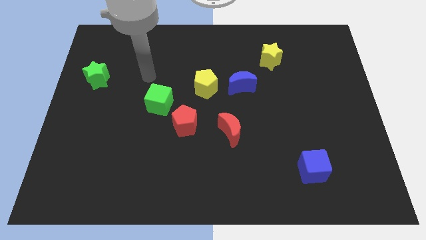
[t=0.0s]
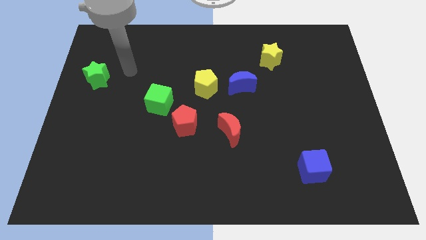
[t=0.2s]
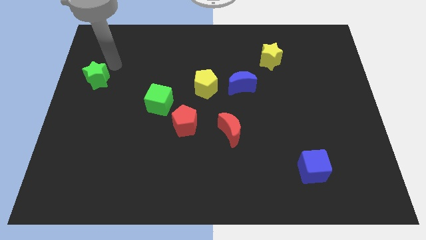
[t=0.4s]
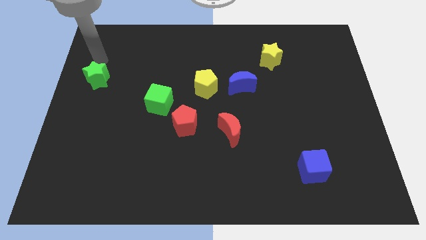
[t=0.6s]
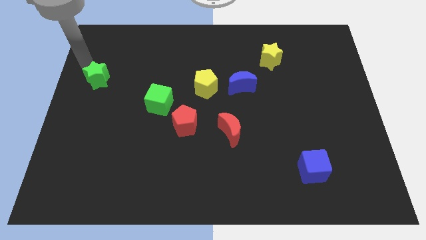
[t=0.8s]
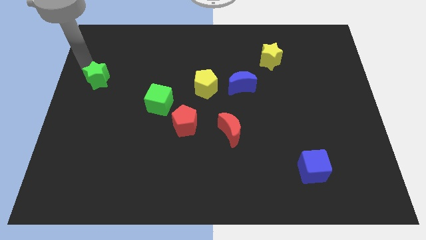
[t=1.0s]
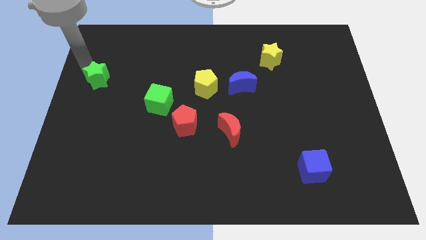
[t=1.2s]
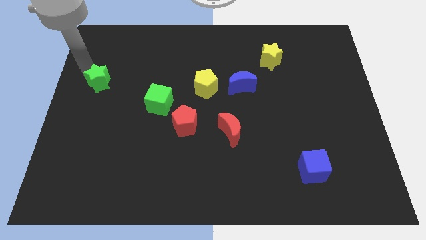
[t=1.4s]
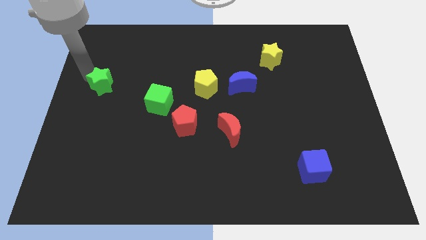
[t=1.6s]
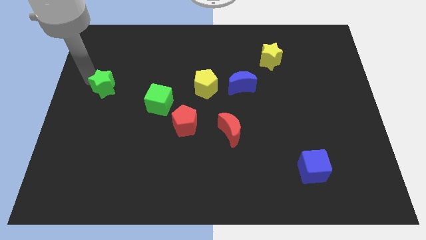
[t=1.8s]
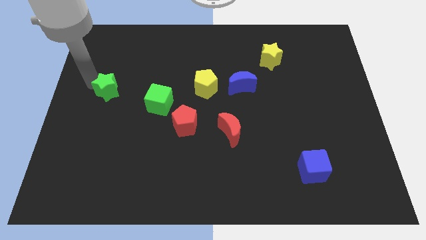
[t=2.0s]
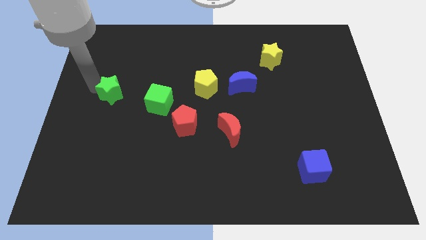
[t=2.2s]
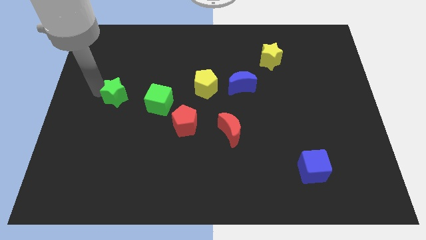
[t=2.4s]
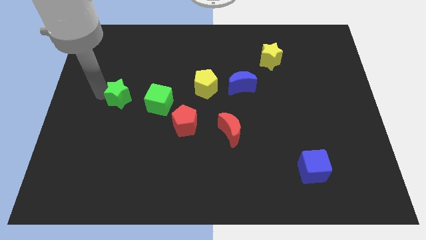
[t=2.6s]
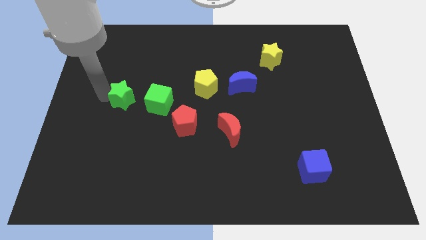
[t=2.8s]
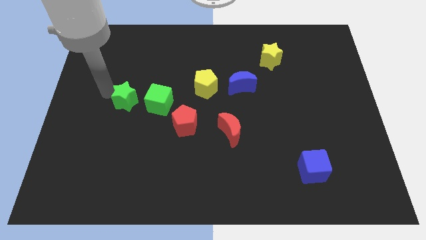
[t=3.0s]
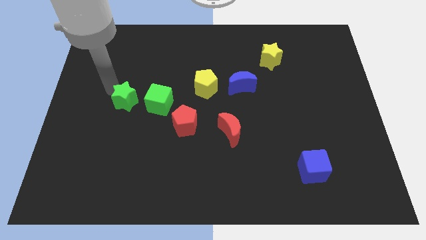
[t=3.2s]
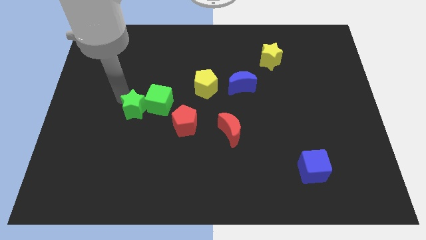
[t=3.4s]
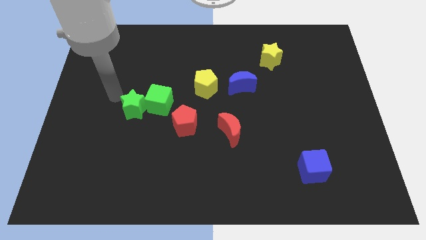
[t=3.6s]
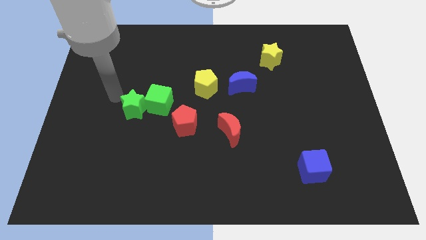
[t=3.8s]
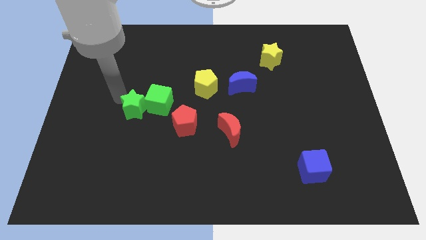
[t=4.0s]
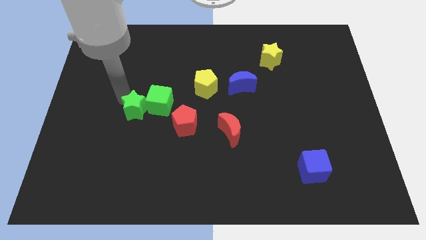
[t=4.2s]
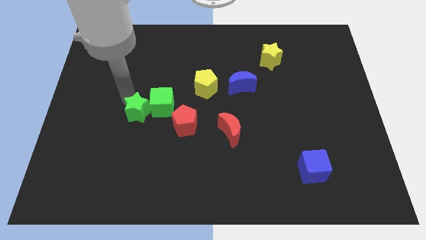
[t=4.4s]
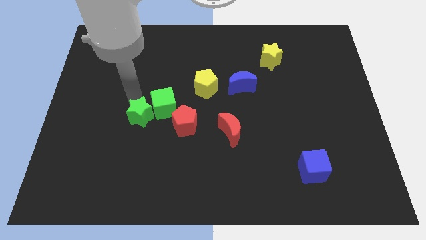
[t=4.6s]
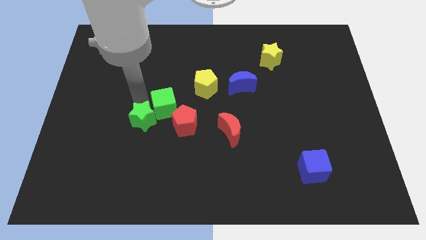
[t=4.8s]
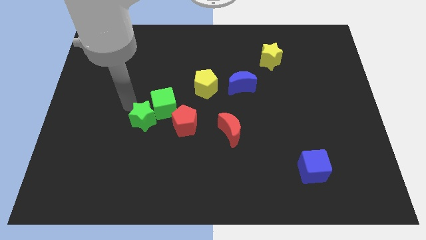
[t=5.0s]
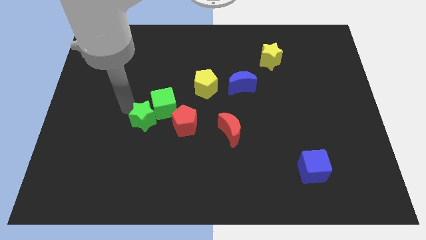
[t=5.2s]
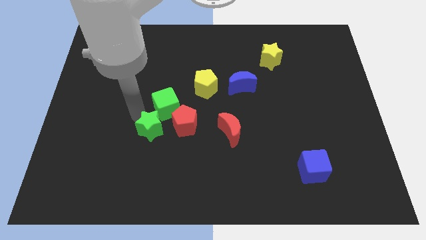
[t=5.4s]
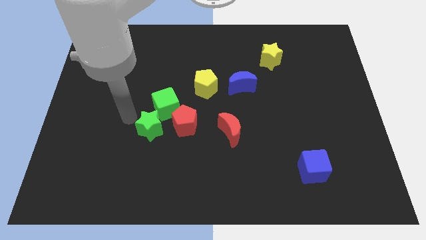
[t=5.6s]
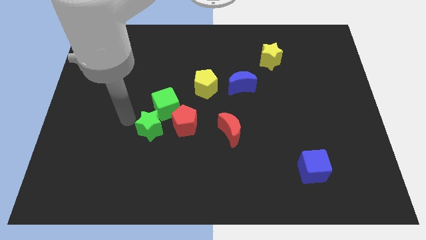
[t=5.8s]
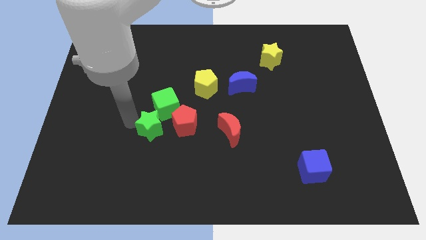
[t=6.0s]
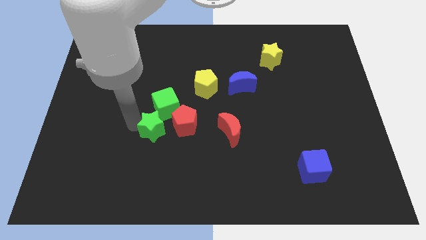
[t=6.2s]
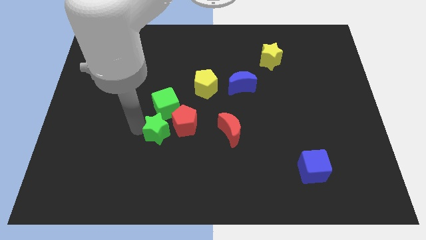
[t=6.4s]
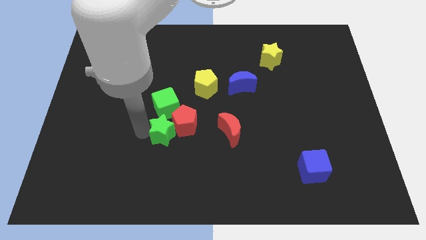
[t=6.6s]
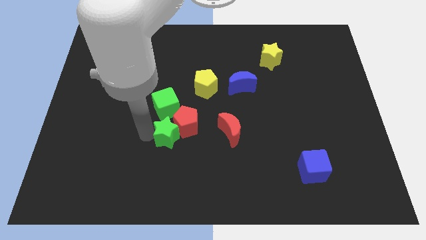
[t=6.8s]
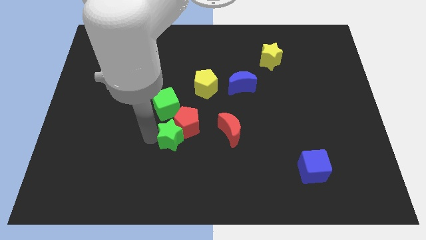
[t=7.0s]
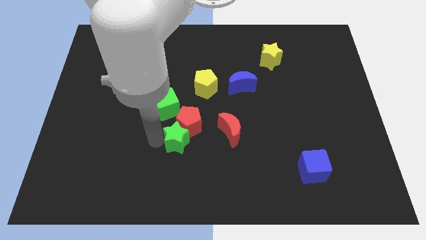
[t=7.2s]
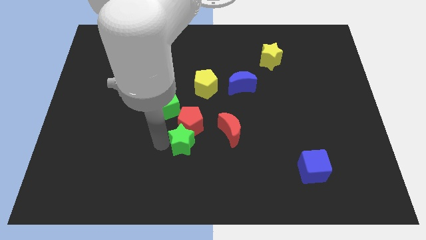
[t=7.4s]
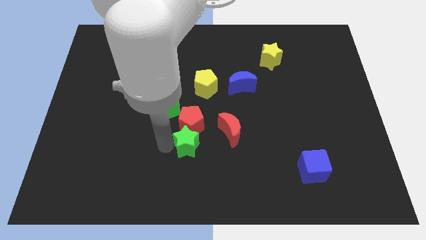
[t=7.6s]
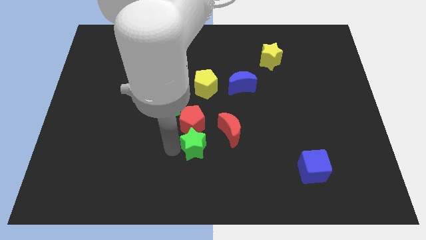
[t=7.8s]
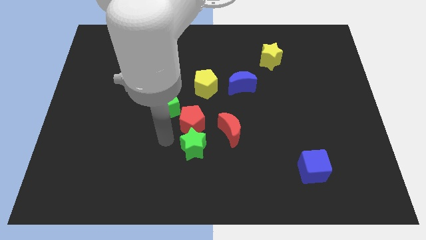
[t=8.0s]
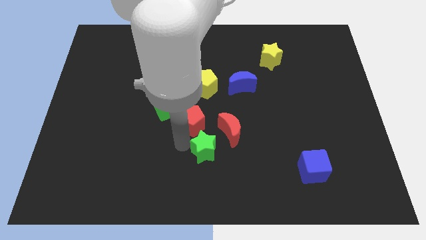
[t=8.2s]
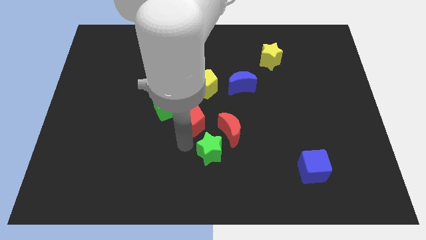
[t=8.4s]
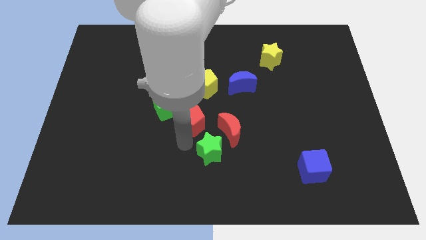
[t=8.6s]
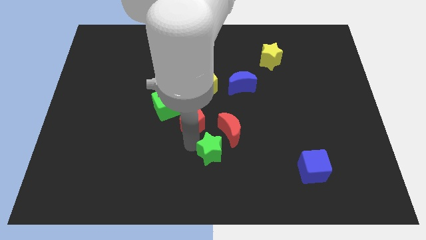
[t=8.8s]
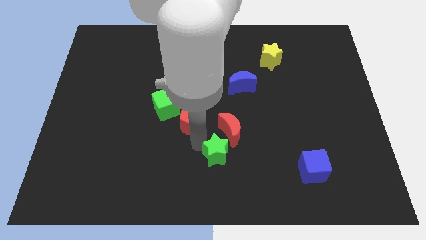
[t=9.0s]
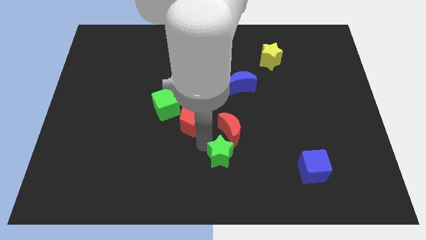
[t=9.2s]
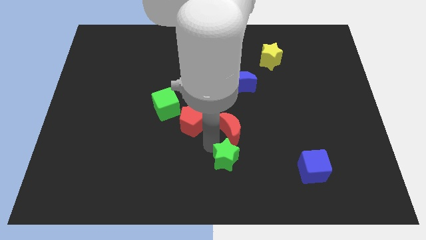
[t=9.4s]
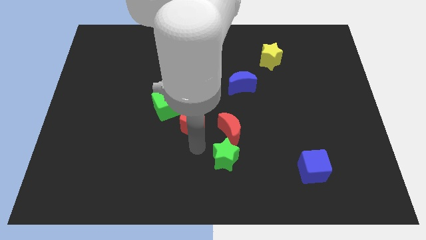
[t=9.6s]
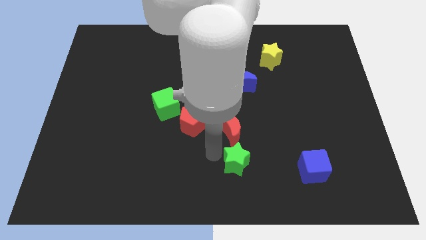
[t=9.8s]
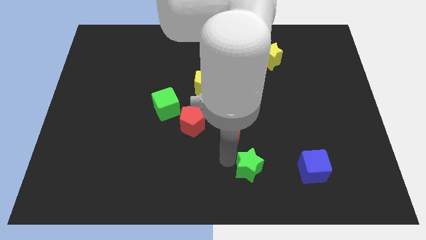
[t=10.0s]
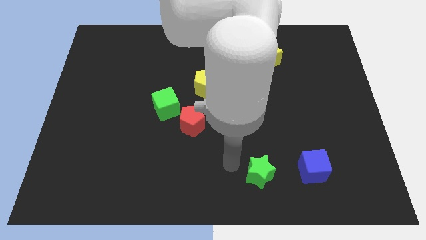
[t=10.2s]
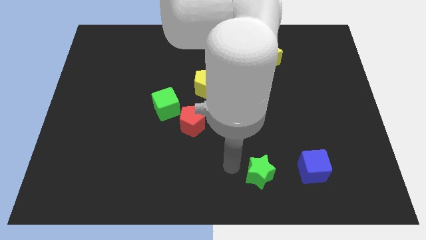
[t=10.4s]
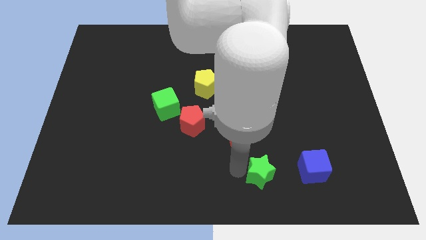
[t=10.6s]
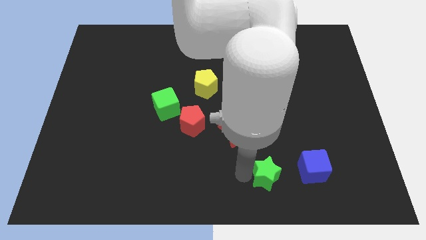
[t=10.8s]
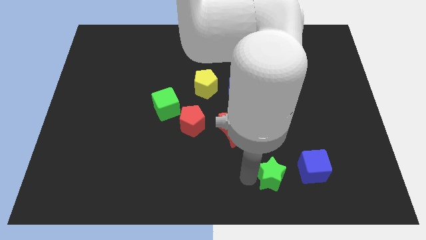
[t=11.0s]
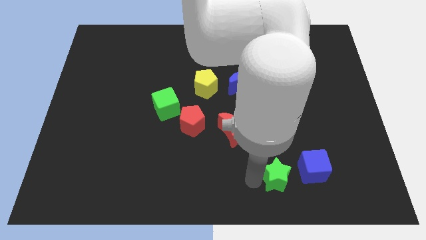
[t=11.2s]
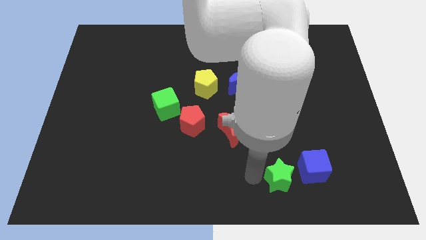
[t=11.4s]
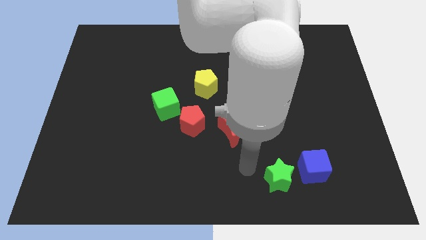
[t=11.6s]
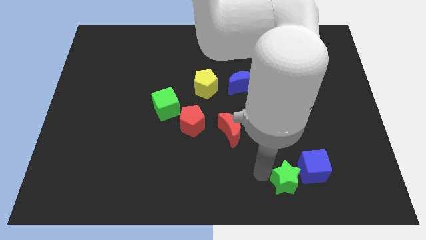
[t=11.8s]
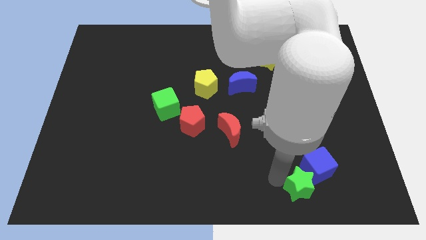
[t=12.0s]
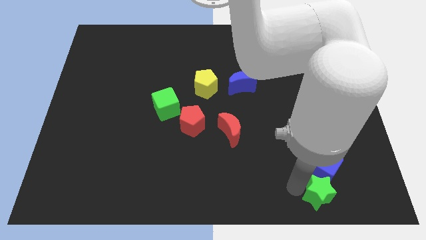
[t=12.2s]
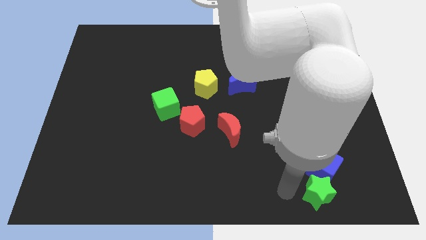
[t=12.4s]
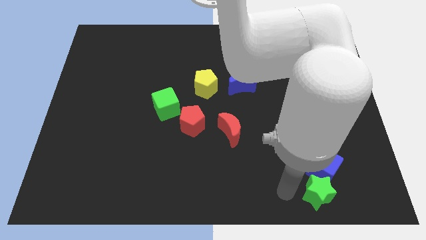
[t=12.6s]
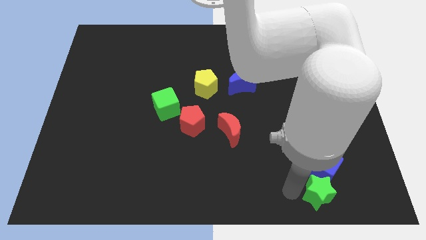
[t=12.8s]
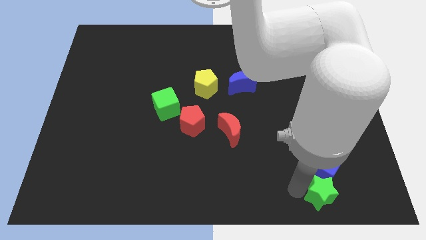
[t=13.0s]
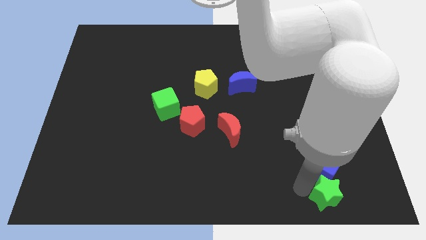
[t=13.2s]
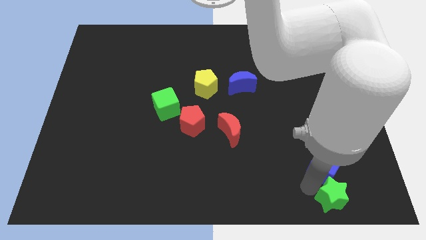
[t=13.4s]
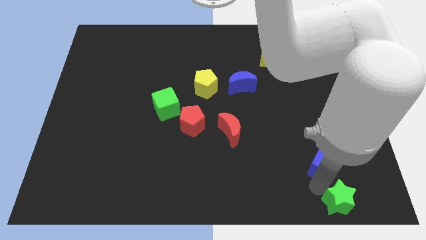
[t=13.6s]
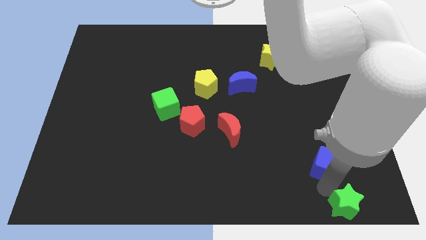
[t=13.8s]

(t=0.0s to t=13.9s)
slide the green star to the bottom right of the board
